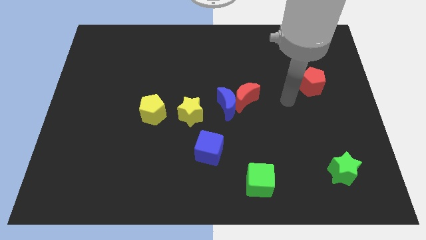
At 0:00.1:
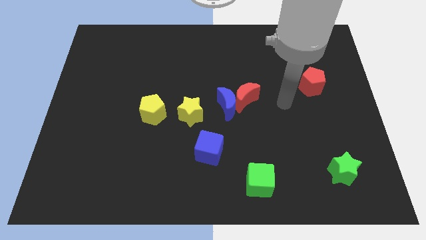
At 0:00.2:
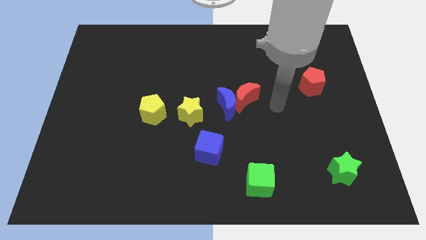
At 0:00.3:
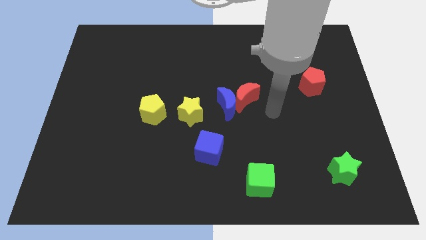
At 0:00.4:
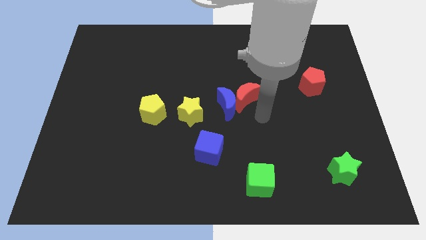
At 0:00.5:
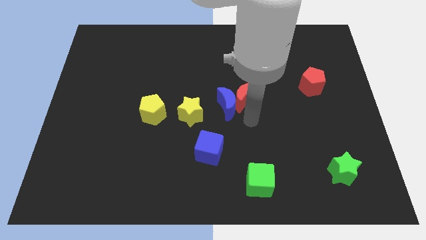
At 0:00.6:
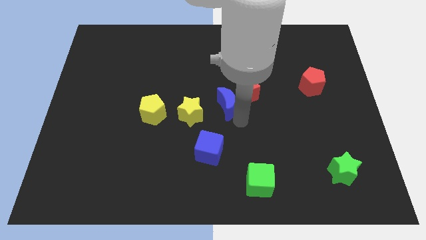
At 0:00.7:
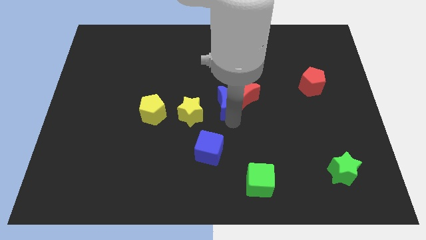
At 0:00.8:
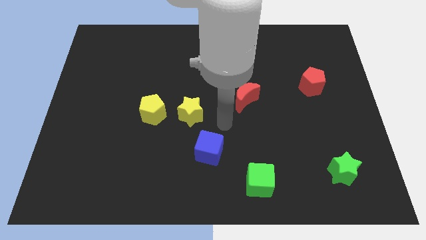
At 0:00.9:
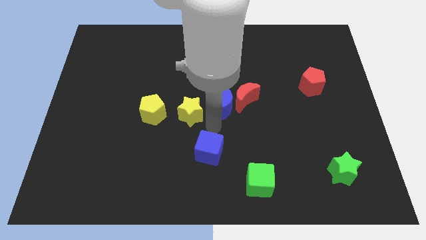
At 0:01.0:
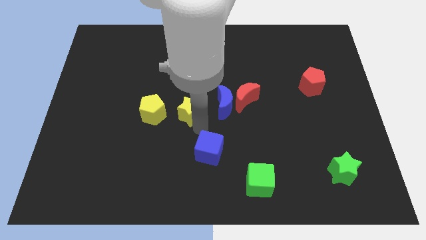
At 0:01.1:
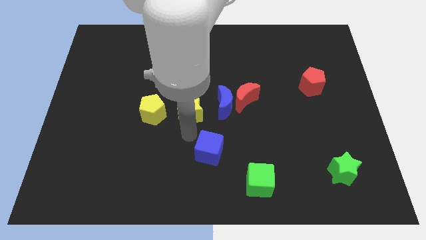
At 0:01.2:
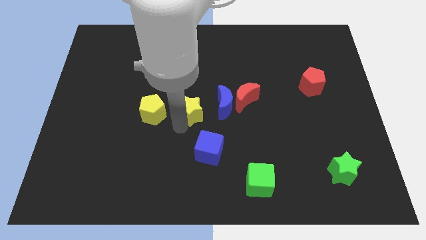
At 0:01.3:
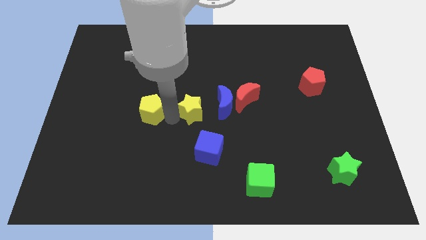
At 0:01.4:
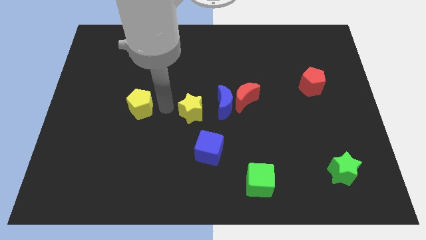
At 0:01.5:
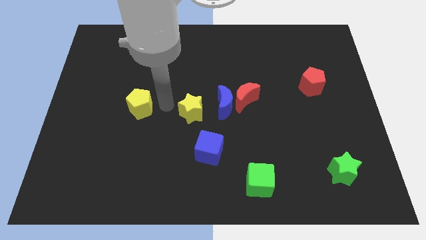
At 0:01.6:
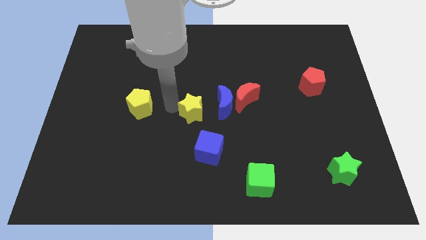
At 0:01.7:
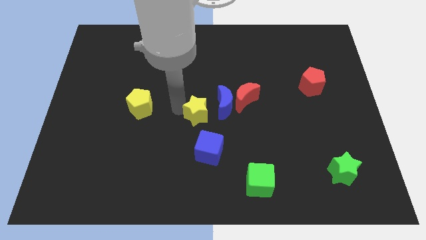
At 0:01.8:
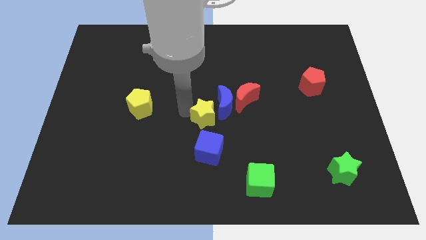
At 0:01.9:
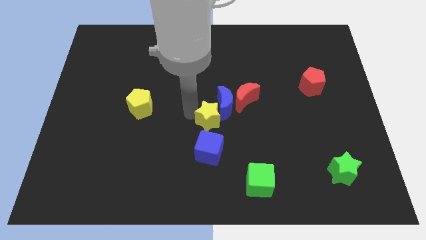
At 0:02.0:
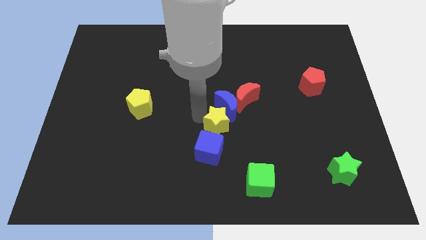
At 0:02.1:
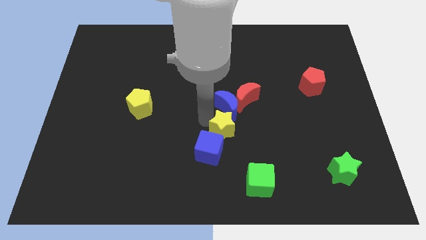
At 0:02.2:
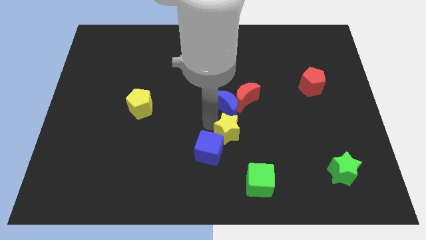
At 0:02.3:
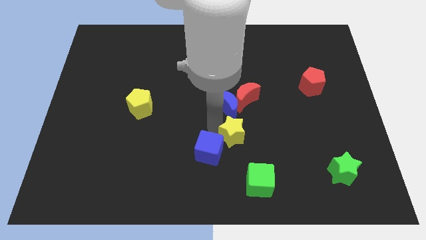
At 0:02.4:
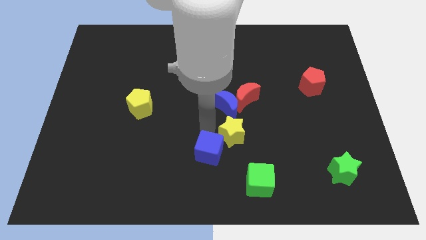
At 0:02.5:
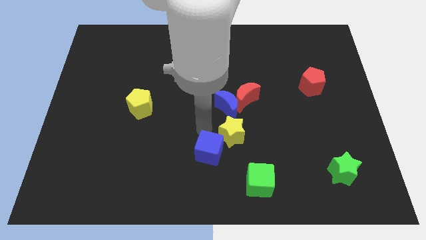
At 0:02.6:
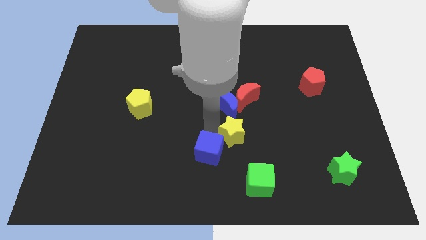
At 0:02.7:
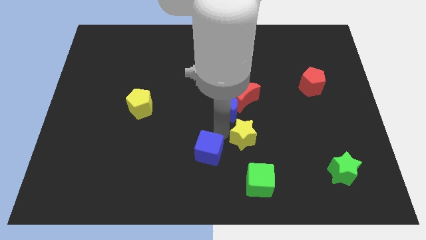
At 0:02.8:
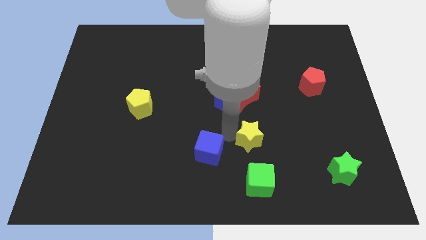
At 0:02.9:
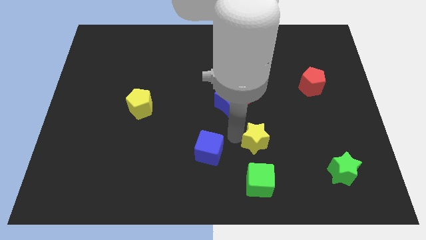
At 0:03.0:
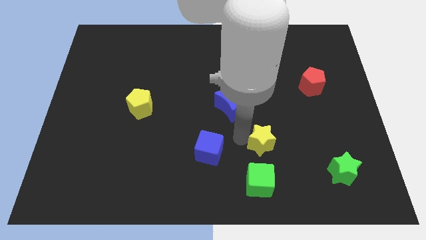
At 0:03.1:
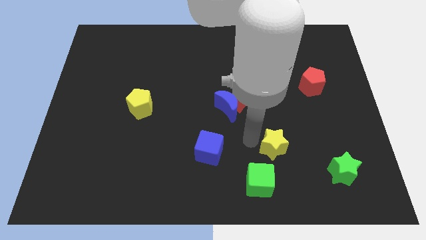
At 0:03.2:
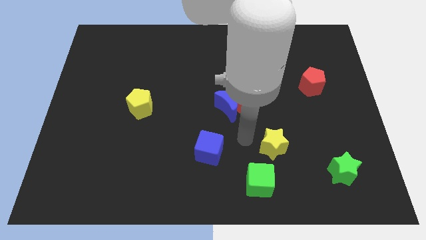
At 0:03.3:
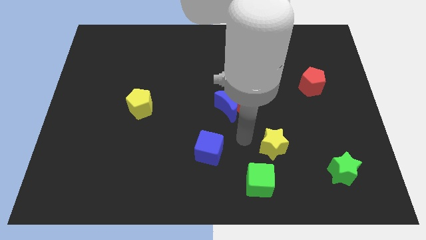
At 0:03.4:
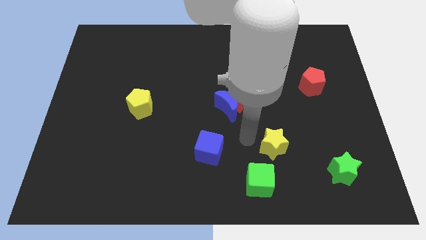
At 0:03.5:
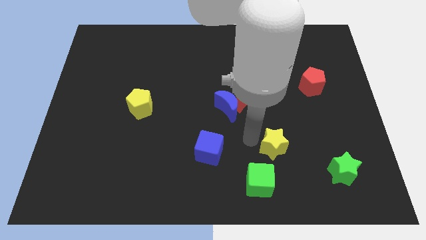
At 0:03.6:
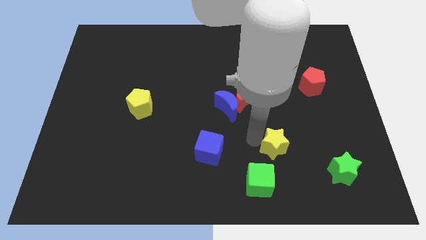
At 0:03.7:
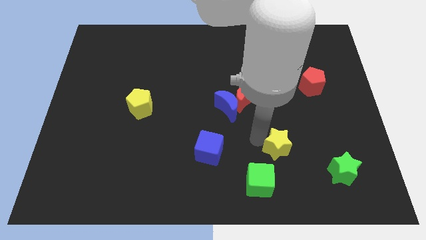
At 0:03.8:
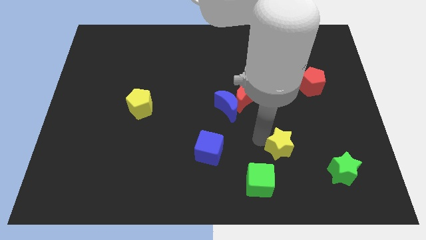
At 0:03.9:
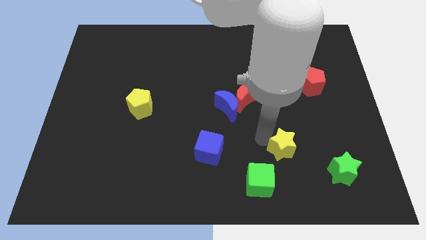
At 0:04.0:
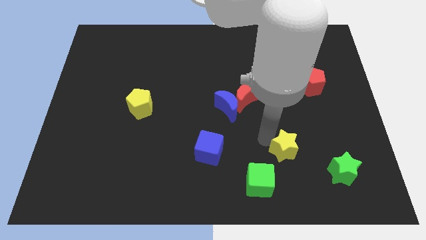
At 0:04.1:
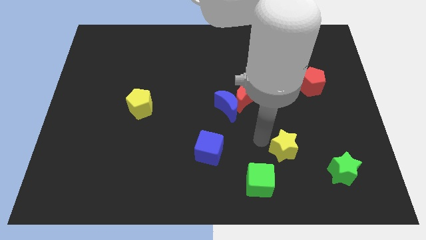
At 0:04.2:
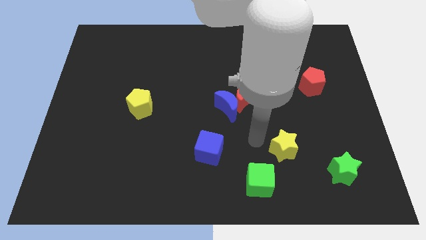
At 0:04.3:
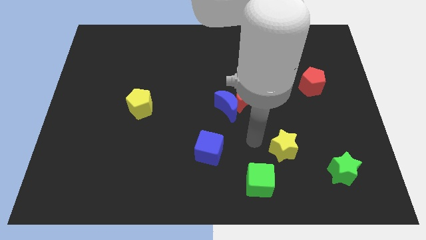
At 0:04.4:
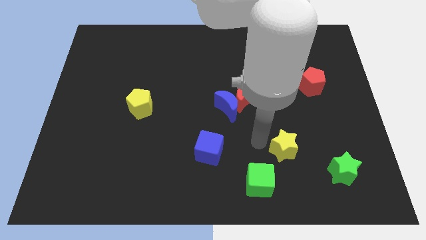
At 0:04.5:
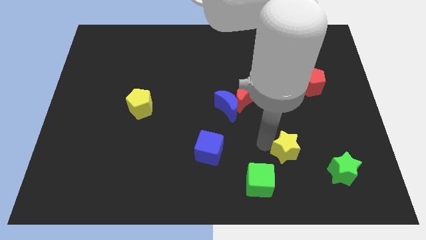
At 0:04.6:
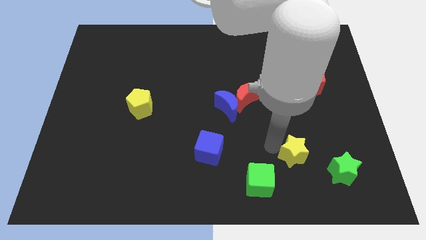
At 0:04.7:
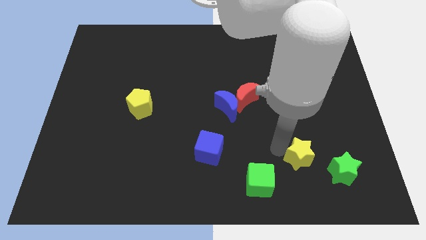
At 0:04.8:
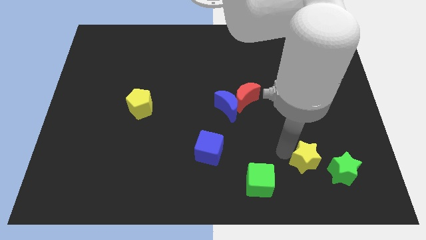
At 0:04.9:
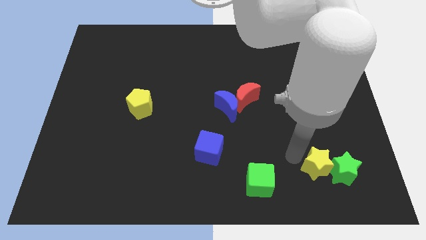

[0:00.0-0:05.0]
push the yellow star close to the green star

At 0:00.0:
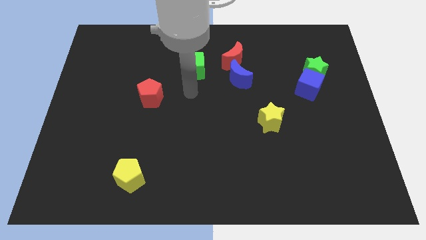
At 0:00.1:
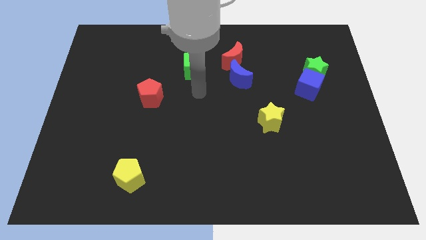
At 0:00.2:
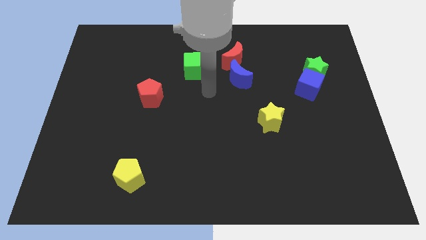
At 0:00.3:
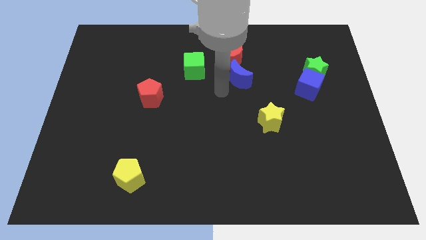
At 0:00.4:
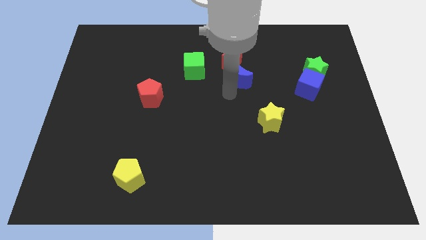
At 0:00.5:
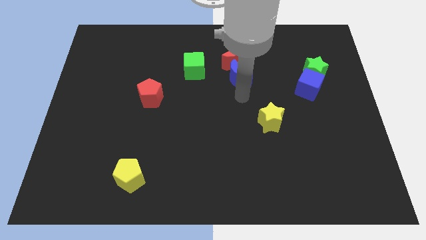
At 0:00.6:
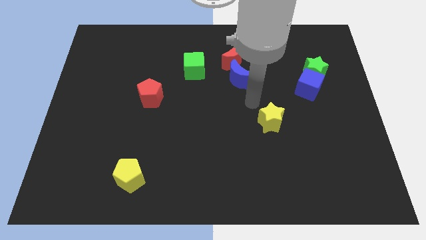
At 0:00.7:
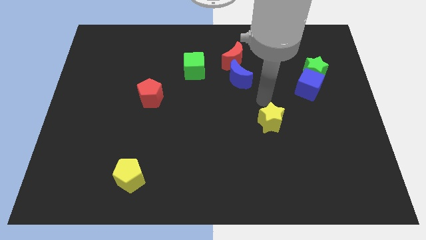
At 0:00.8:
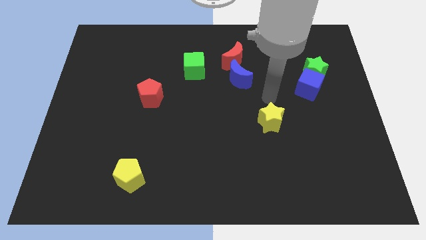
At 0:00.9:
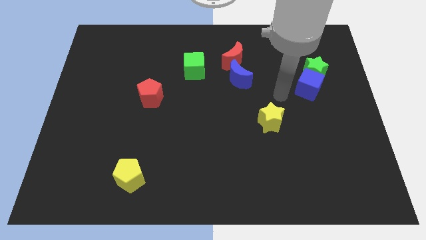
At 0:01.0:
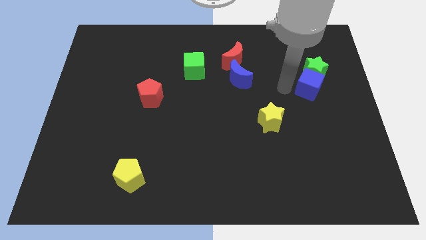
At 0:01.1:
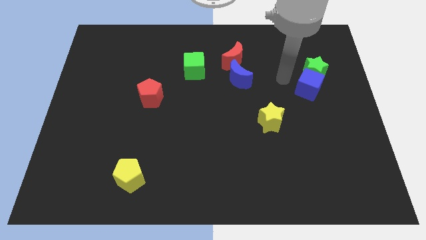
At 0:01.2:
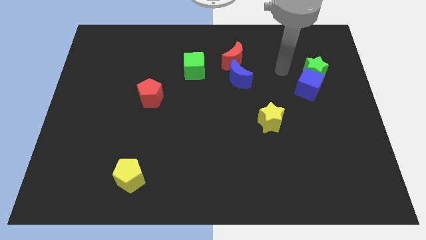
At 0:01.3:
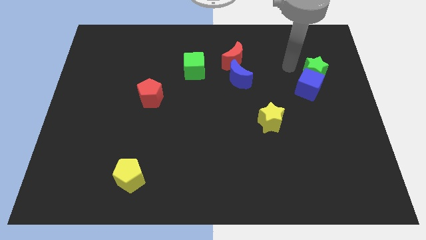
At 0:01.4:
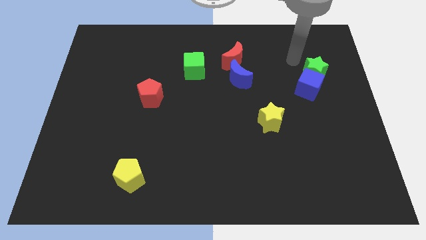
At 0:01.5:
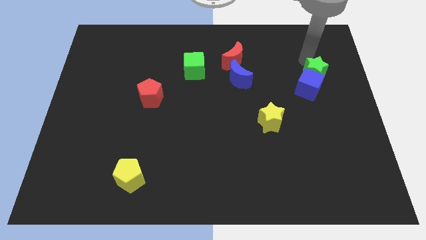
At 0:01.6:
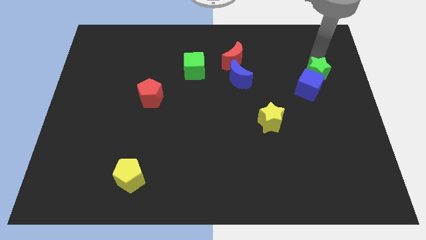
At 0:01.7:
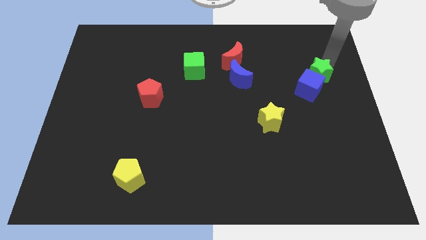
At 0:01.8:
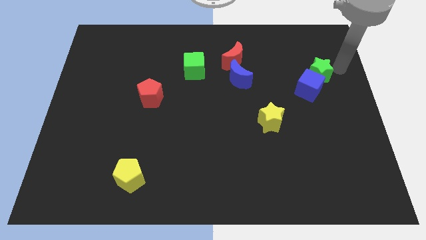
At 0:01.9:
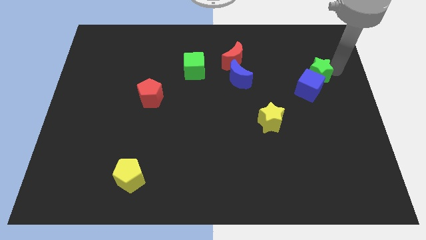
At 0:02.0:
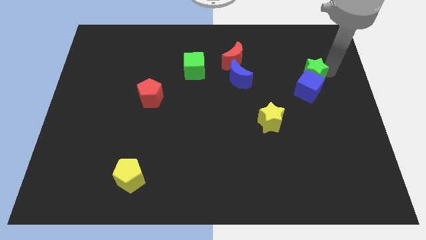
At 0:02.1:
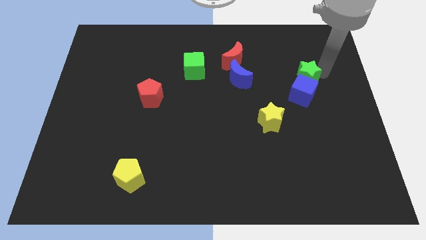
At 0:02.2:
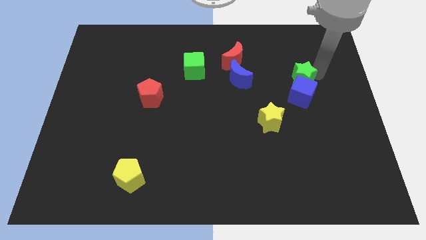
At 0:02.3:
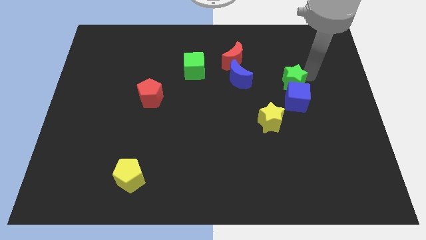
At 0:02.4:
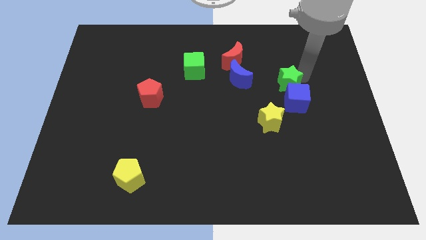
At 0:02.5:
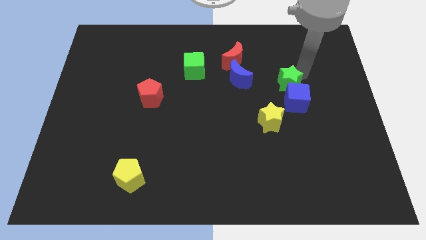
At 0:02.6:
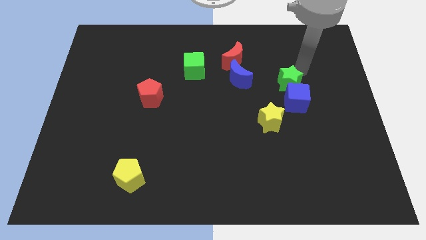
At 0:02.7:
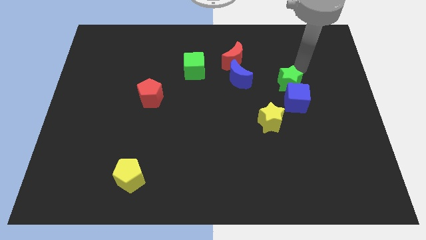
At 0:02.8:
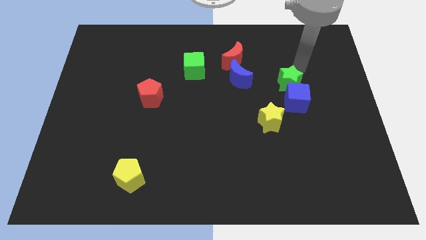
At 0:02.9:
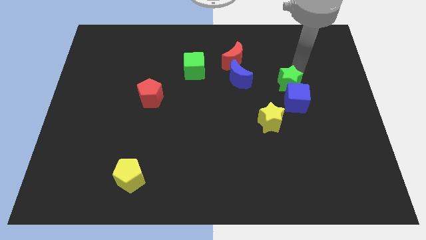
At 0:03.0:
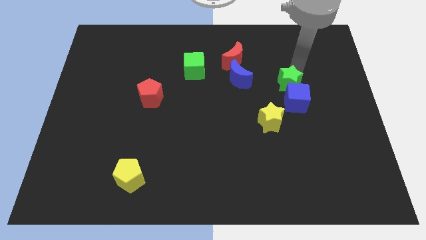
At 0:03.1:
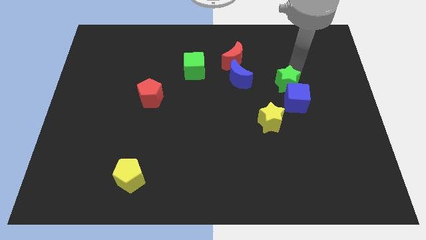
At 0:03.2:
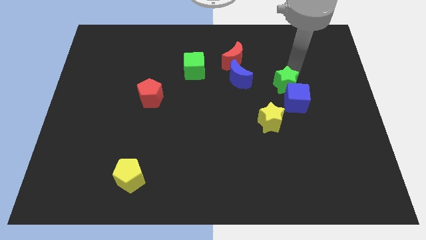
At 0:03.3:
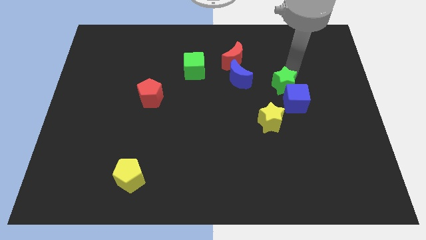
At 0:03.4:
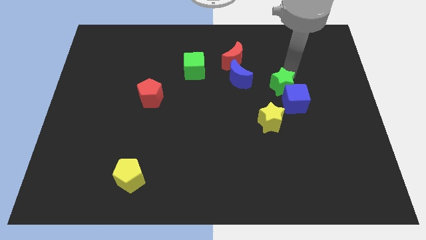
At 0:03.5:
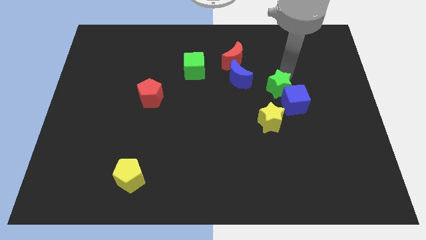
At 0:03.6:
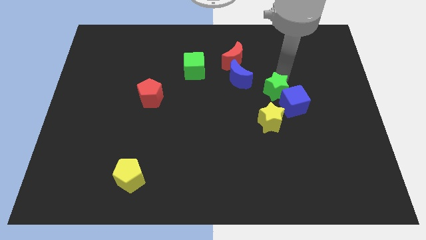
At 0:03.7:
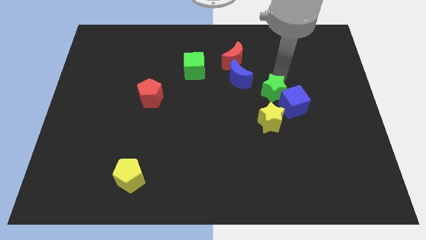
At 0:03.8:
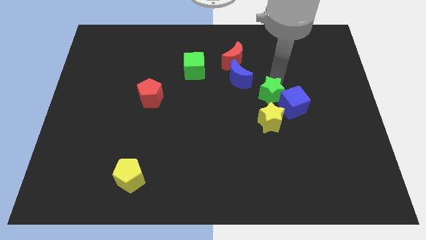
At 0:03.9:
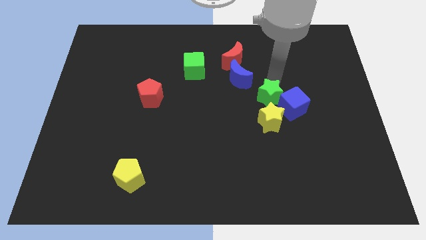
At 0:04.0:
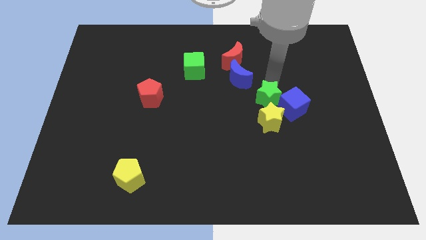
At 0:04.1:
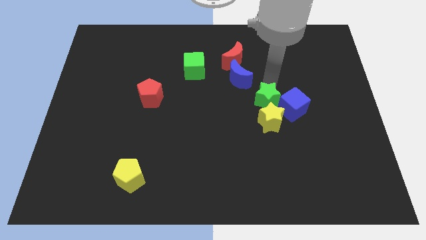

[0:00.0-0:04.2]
slide the green star close to the yellow star
